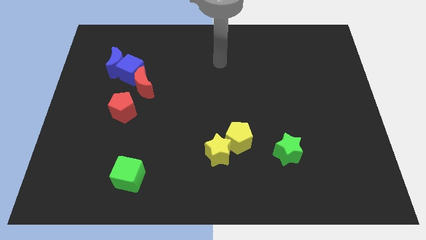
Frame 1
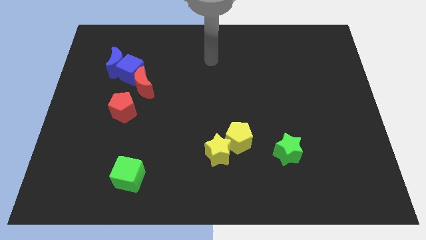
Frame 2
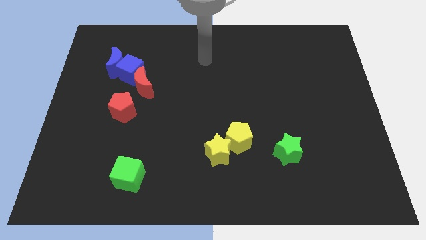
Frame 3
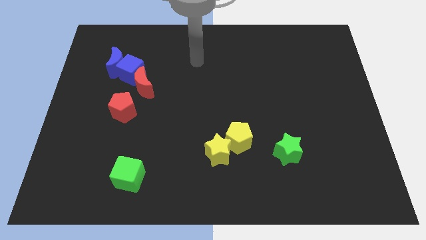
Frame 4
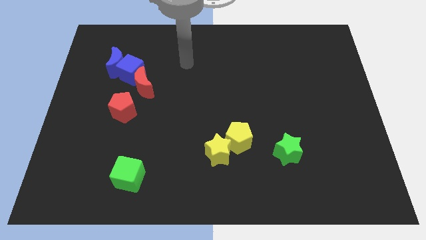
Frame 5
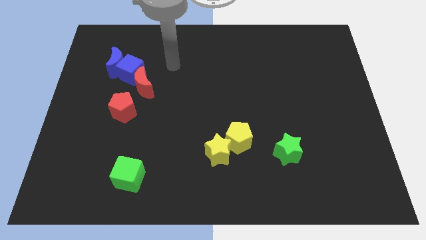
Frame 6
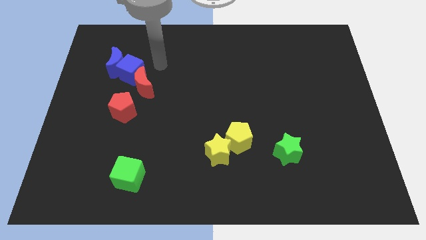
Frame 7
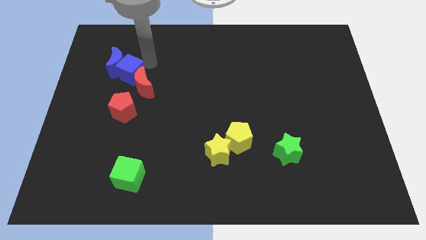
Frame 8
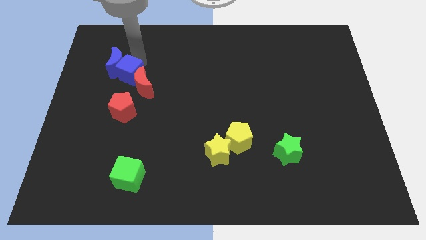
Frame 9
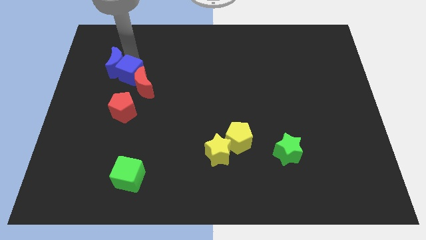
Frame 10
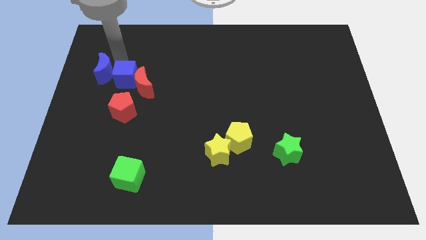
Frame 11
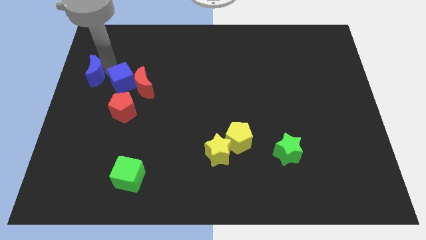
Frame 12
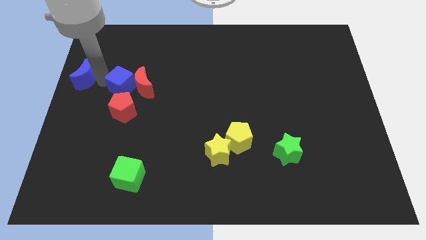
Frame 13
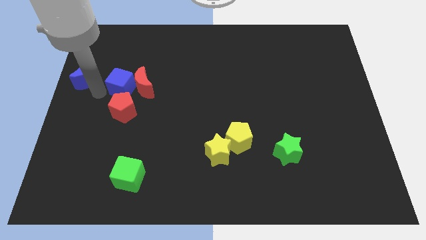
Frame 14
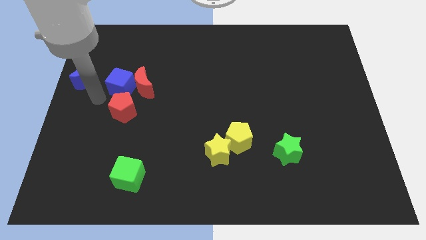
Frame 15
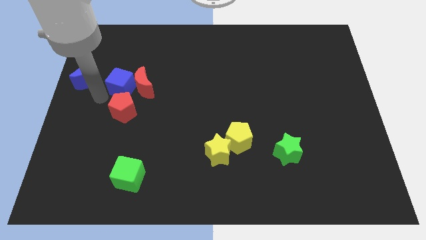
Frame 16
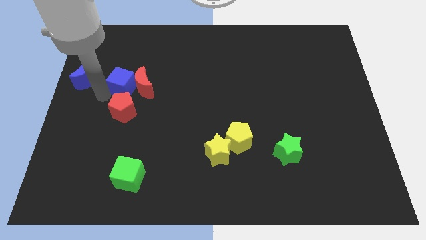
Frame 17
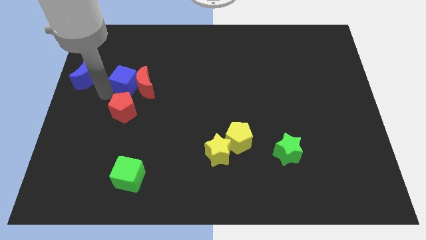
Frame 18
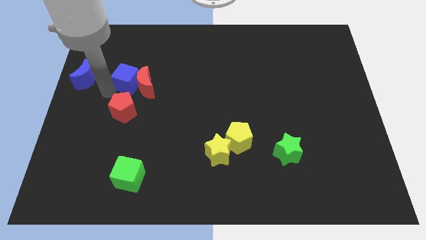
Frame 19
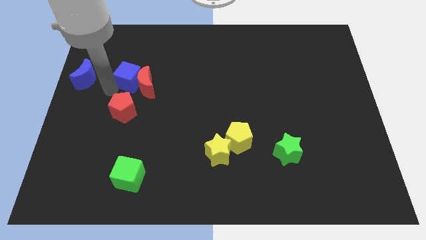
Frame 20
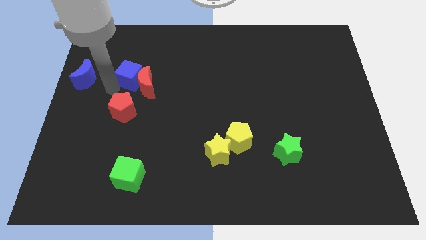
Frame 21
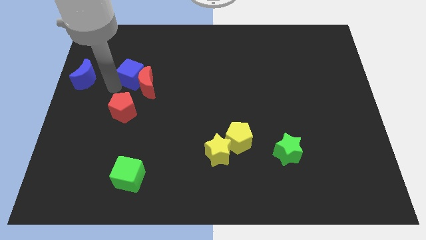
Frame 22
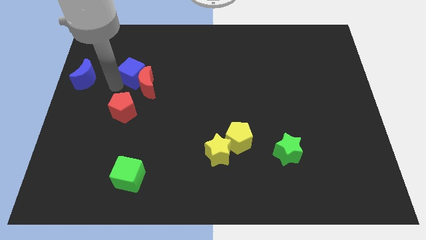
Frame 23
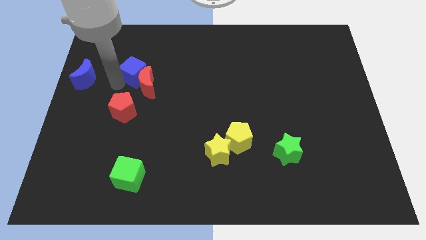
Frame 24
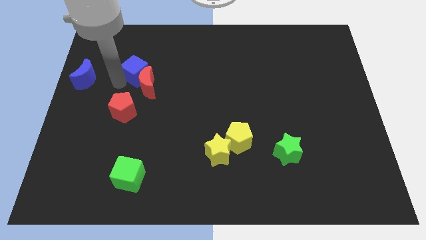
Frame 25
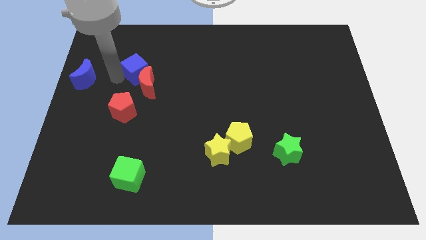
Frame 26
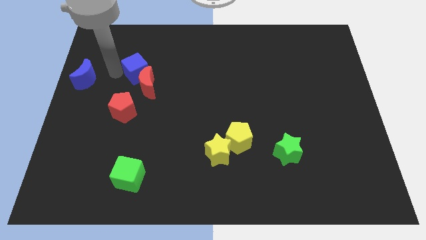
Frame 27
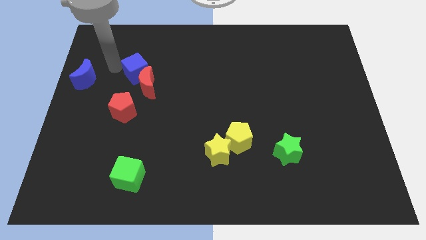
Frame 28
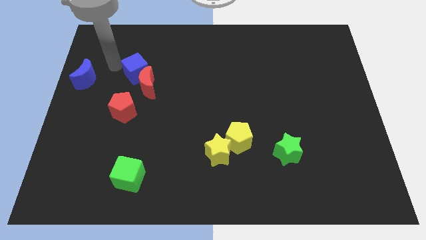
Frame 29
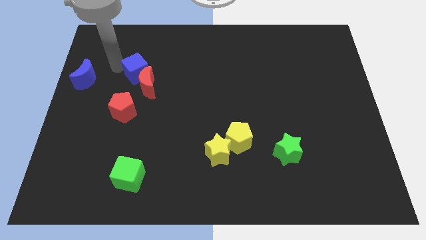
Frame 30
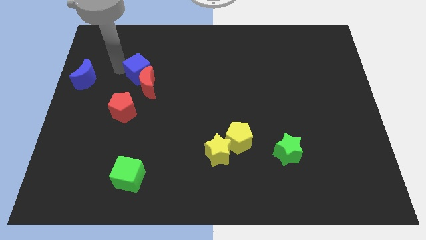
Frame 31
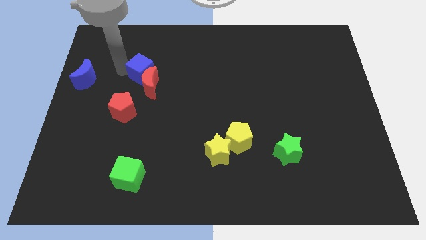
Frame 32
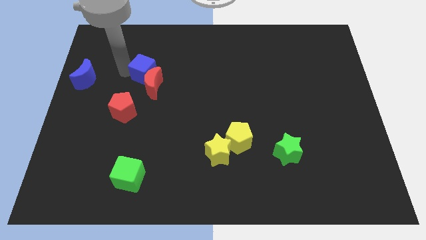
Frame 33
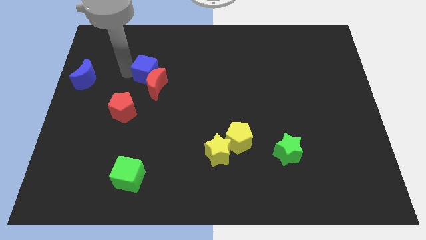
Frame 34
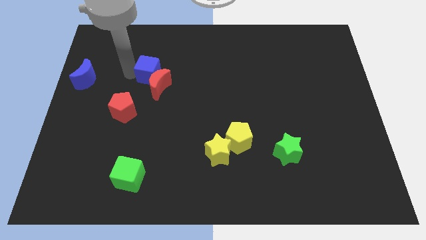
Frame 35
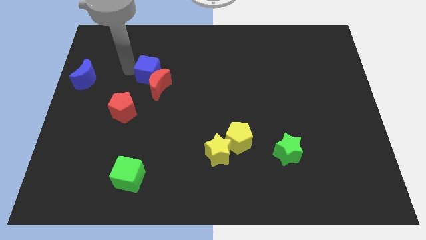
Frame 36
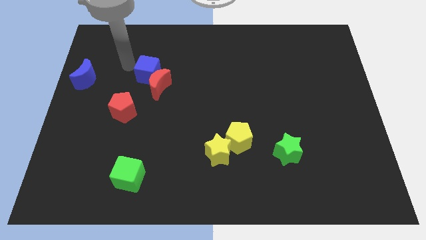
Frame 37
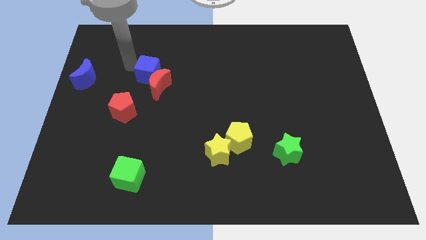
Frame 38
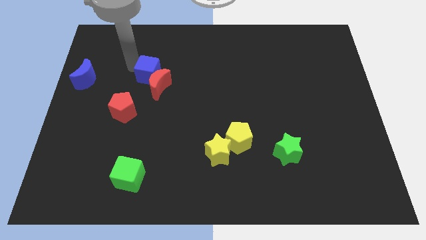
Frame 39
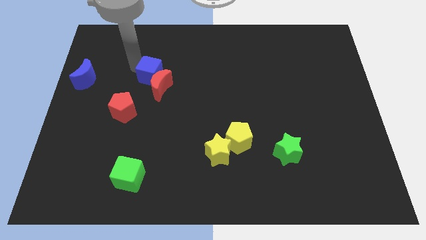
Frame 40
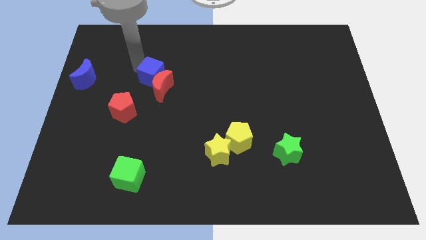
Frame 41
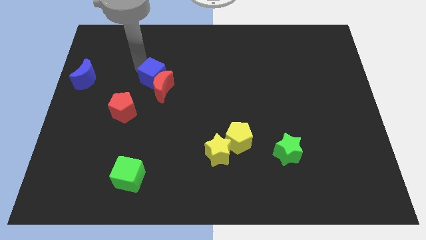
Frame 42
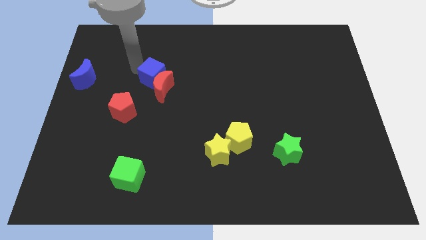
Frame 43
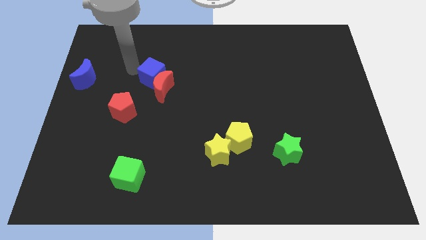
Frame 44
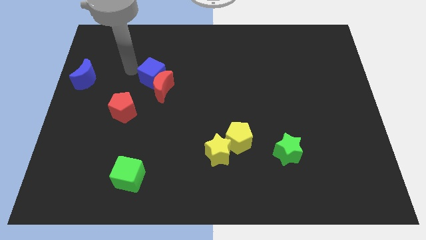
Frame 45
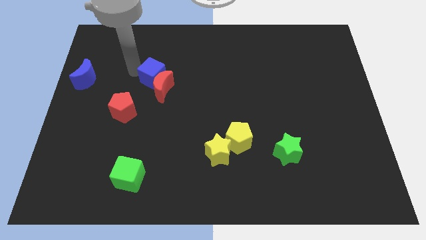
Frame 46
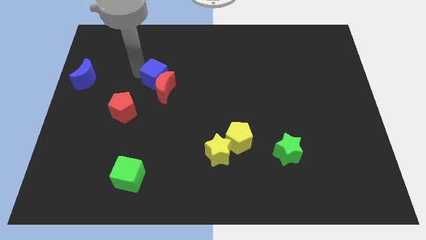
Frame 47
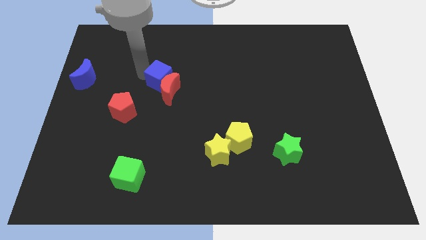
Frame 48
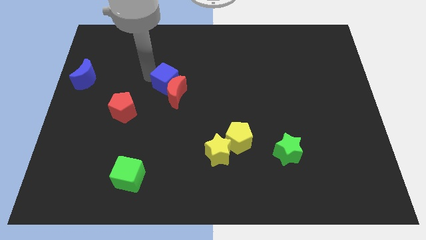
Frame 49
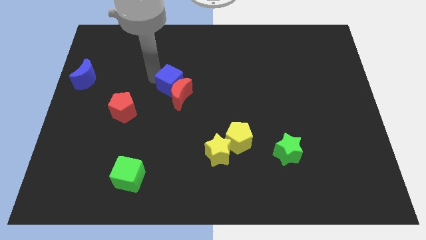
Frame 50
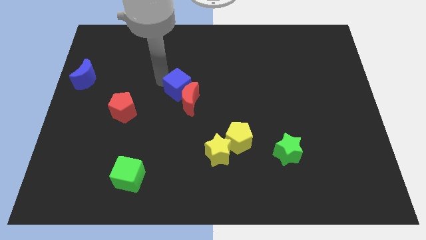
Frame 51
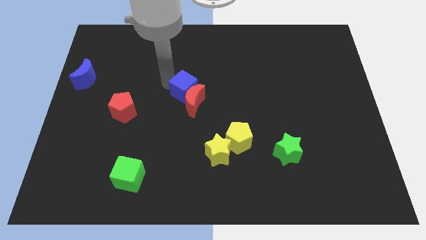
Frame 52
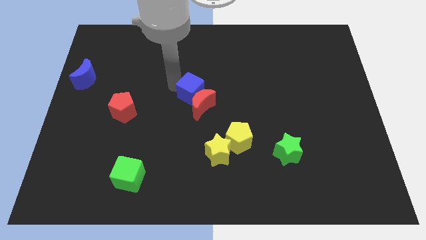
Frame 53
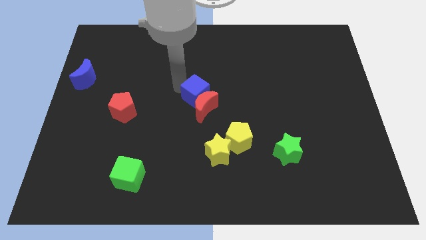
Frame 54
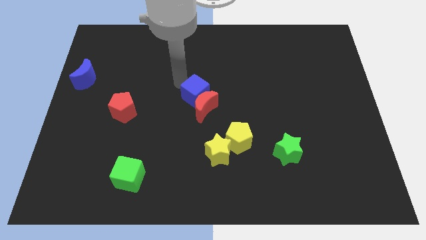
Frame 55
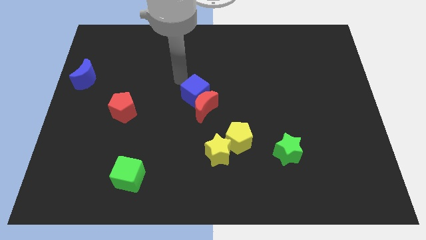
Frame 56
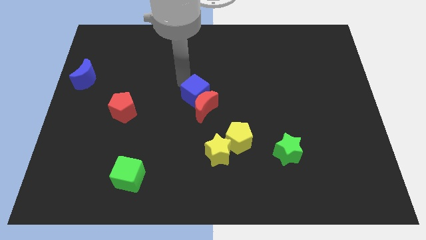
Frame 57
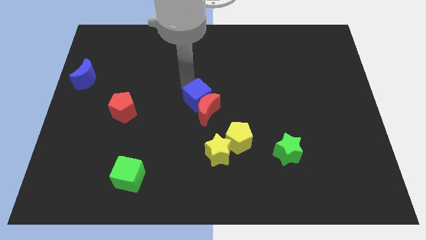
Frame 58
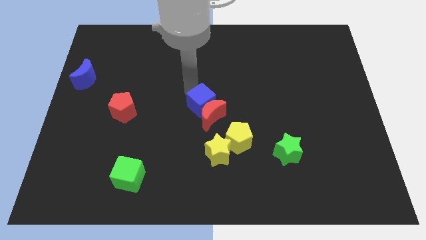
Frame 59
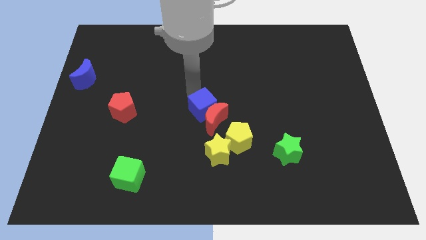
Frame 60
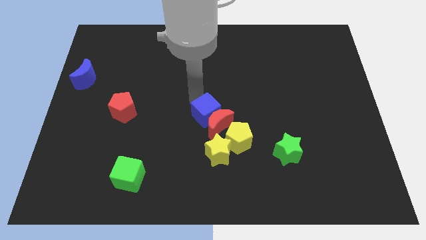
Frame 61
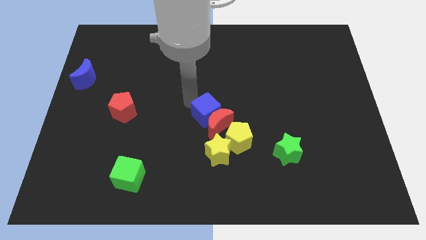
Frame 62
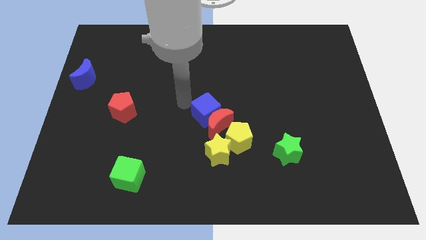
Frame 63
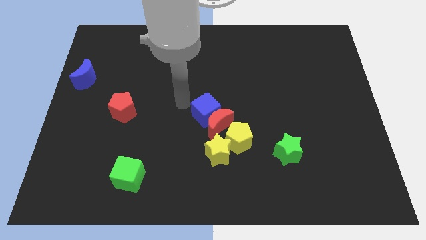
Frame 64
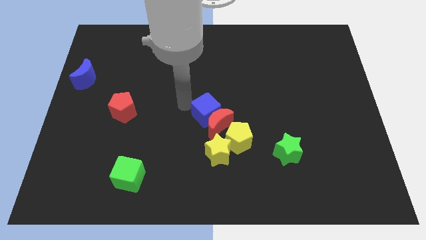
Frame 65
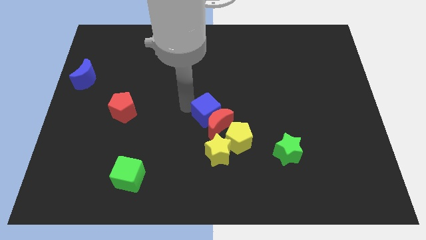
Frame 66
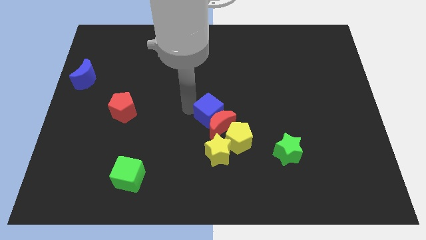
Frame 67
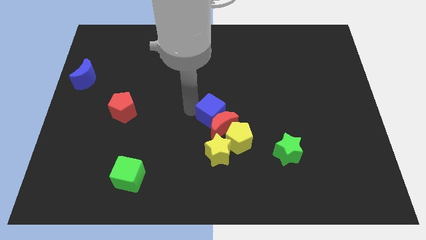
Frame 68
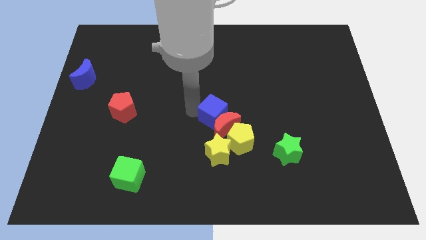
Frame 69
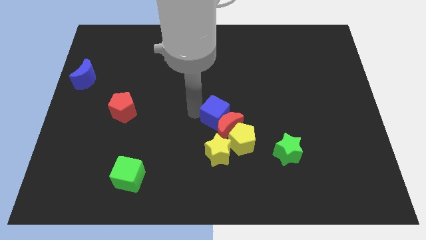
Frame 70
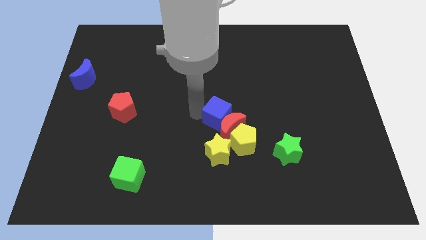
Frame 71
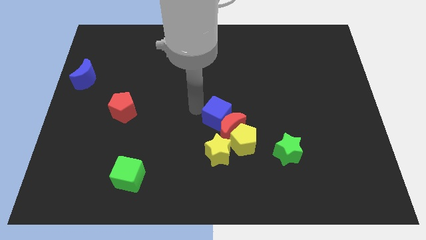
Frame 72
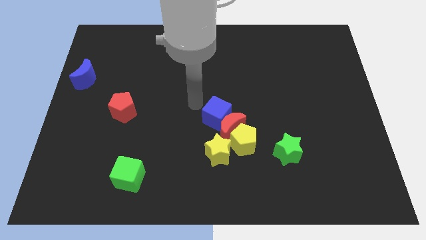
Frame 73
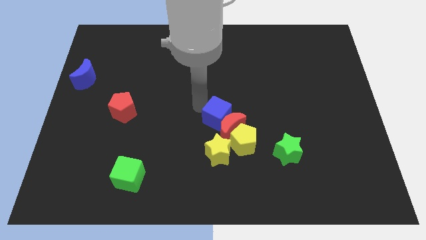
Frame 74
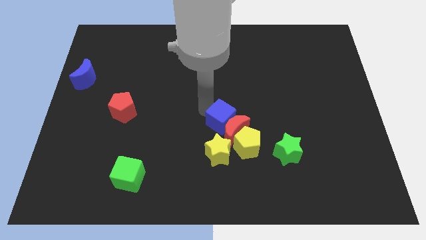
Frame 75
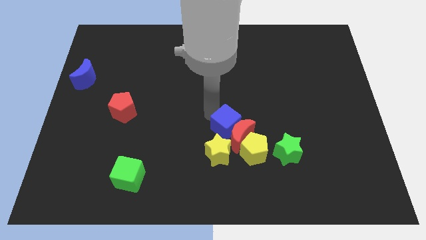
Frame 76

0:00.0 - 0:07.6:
push the blue cube to the top right of the yellow star

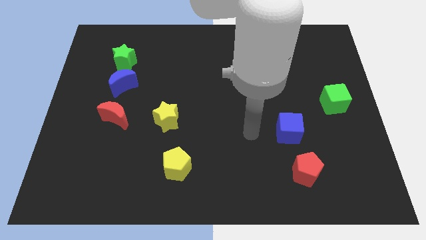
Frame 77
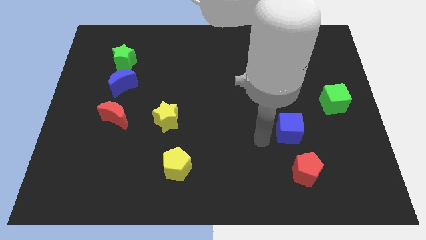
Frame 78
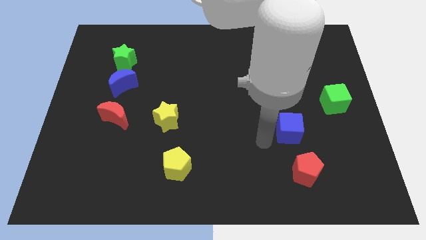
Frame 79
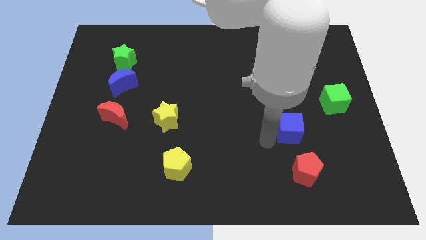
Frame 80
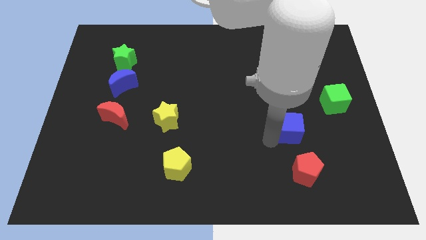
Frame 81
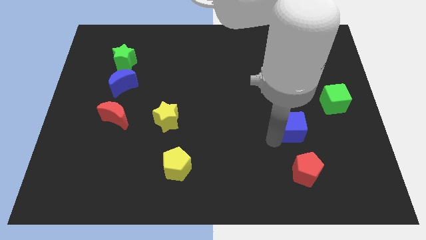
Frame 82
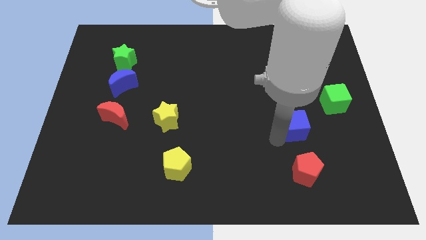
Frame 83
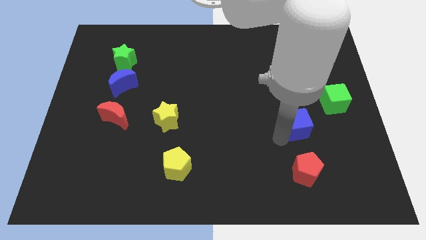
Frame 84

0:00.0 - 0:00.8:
slide the blue cube to the bottom left of the green cube
